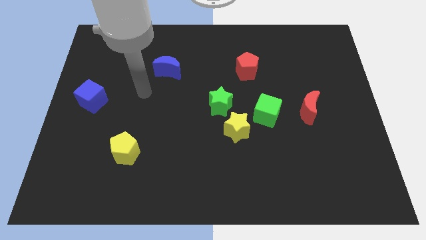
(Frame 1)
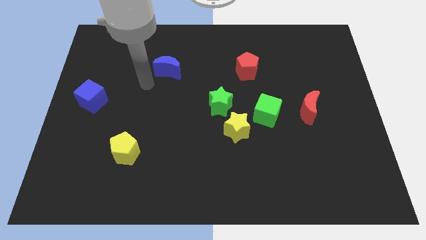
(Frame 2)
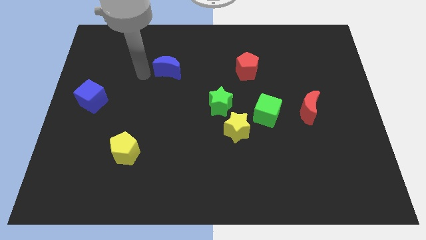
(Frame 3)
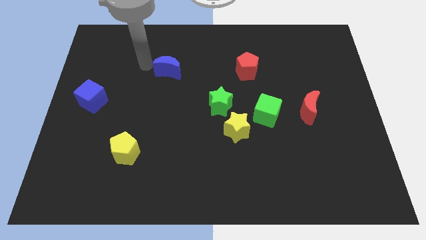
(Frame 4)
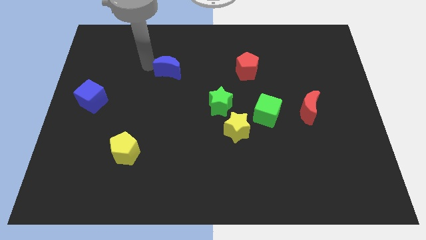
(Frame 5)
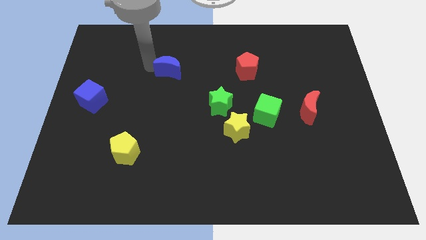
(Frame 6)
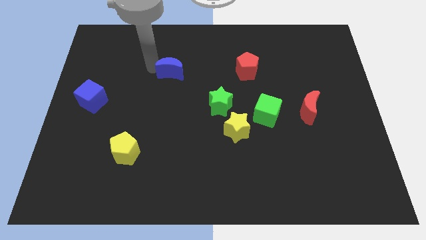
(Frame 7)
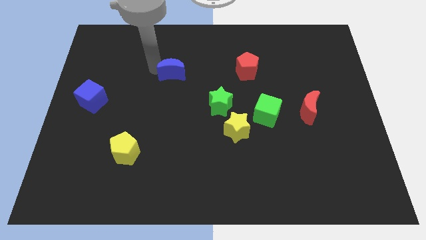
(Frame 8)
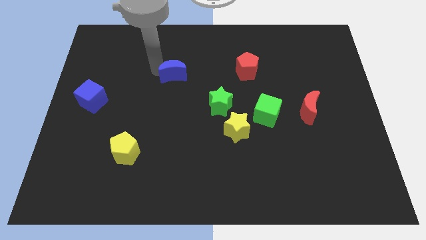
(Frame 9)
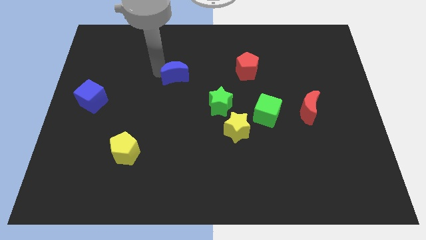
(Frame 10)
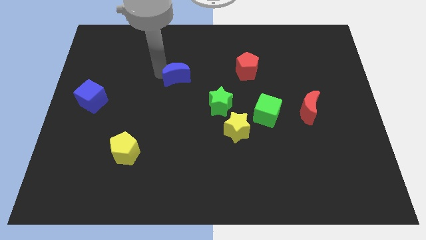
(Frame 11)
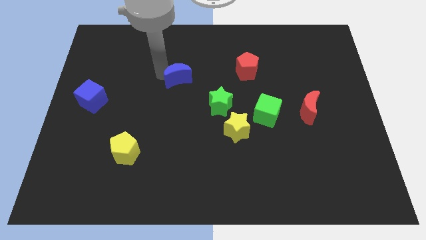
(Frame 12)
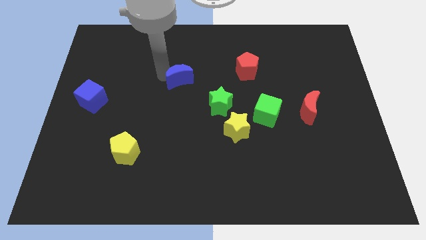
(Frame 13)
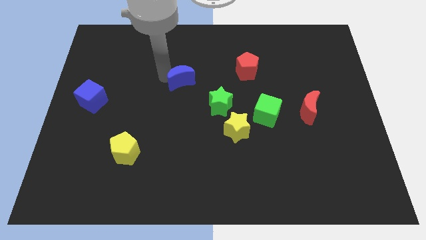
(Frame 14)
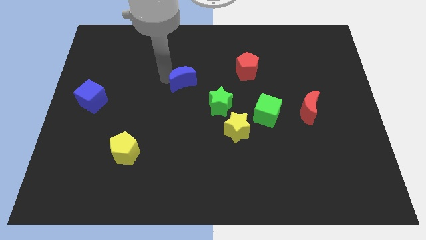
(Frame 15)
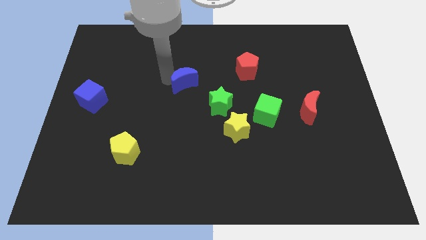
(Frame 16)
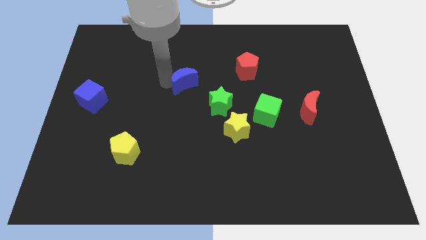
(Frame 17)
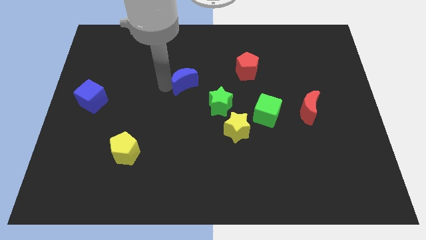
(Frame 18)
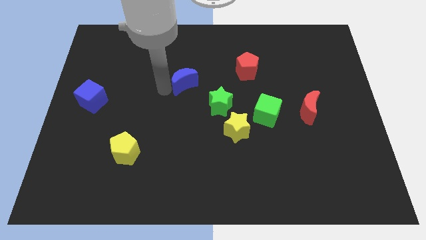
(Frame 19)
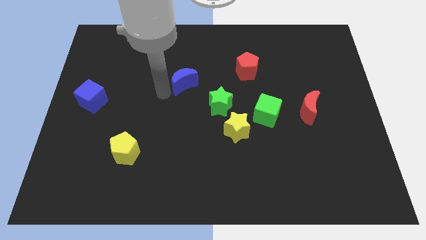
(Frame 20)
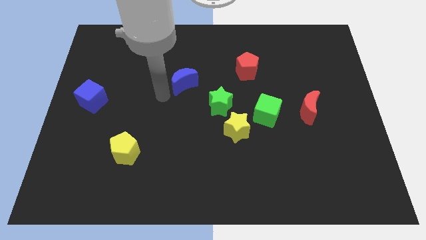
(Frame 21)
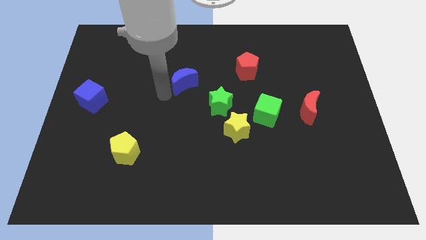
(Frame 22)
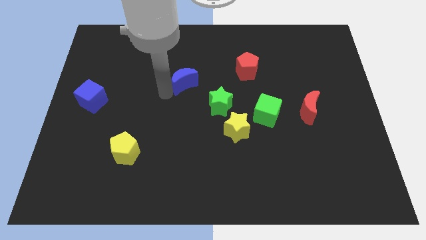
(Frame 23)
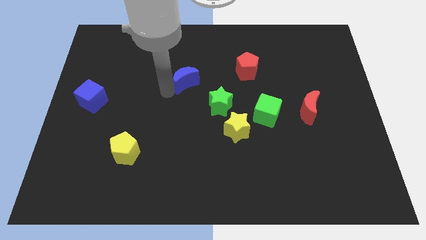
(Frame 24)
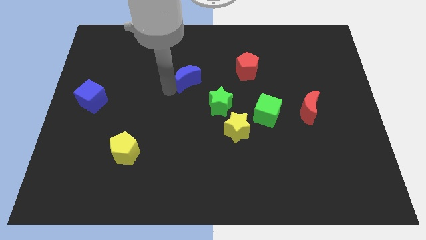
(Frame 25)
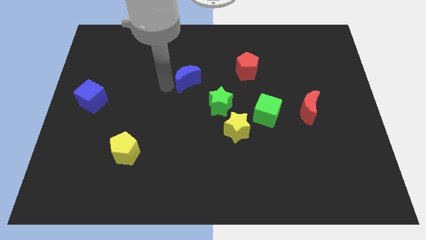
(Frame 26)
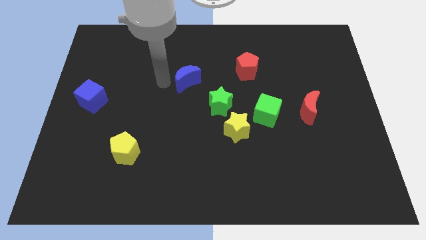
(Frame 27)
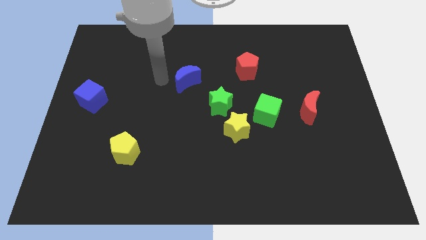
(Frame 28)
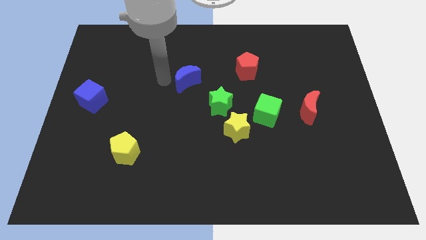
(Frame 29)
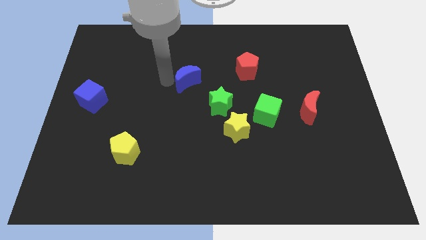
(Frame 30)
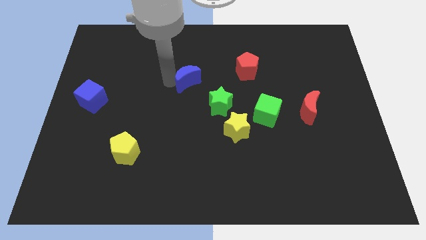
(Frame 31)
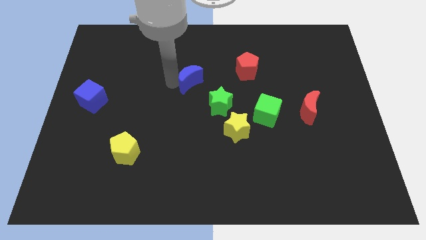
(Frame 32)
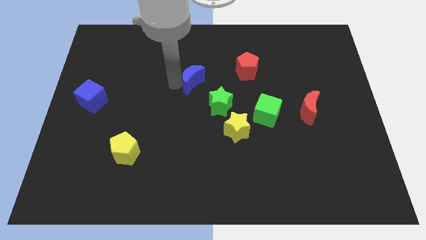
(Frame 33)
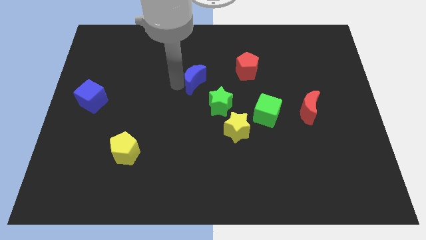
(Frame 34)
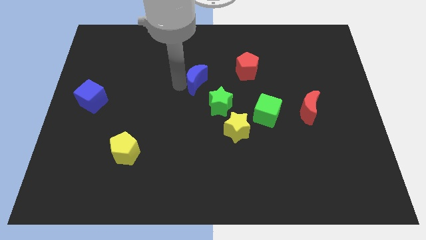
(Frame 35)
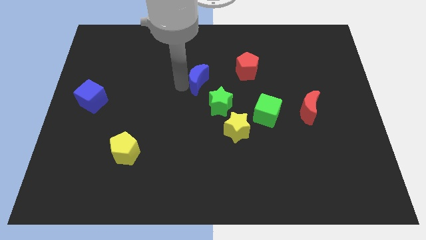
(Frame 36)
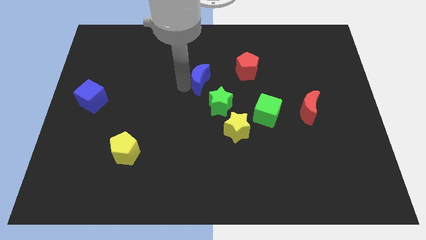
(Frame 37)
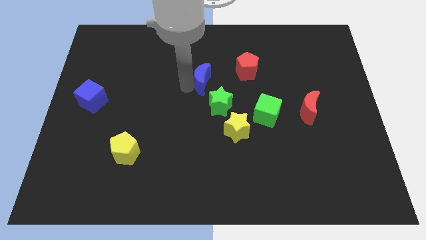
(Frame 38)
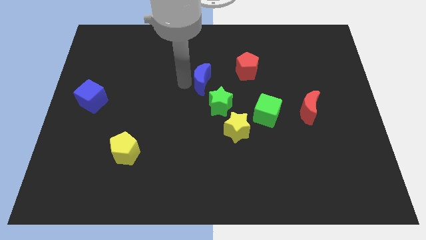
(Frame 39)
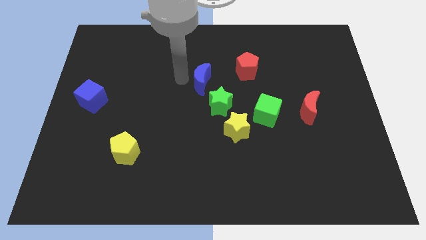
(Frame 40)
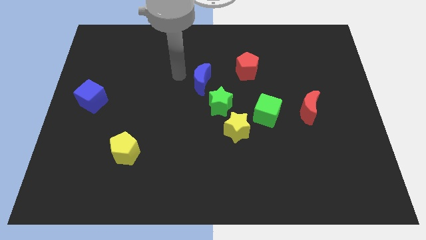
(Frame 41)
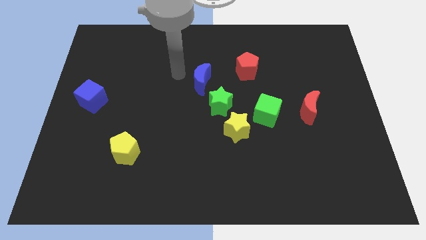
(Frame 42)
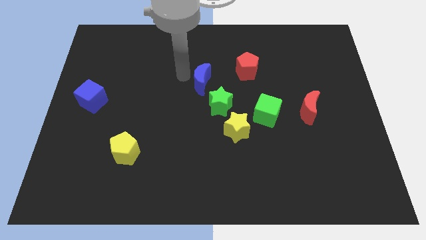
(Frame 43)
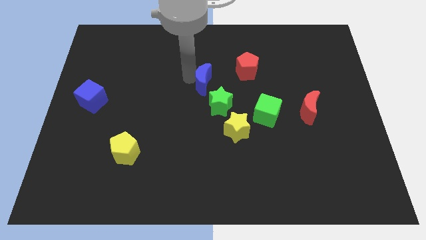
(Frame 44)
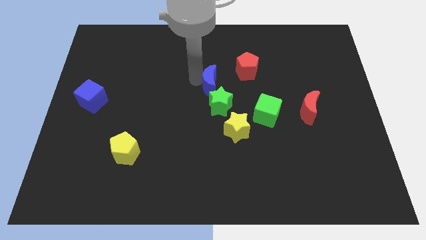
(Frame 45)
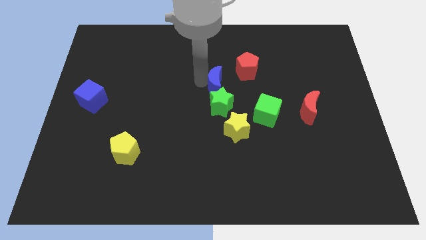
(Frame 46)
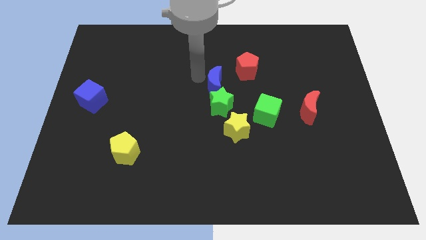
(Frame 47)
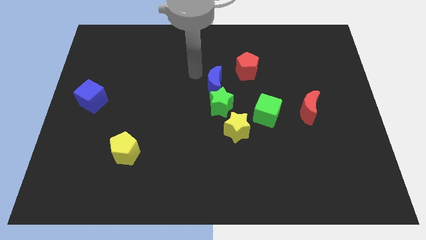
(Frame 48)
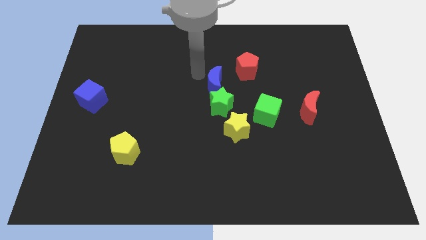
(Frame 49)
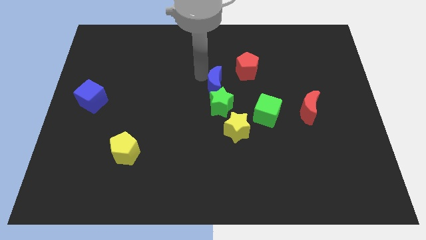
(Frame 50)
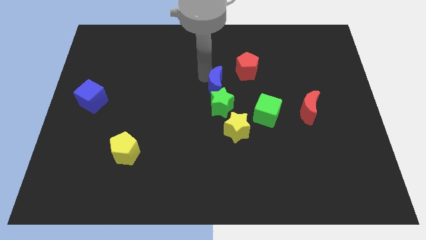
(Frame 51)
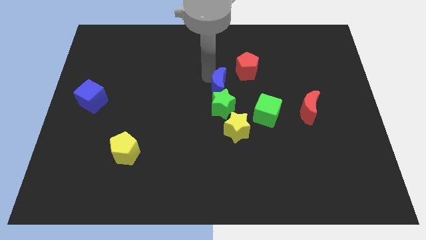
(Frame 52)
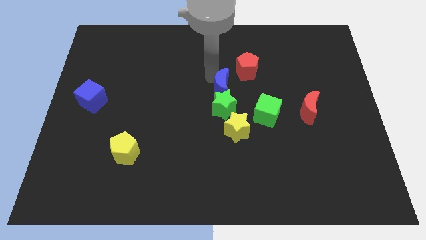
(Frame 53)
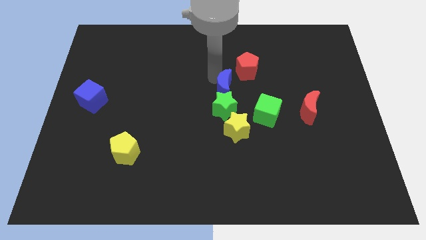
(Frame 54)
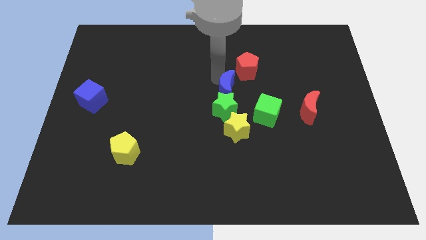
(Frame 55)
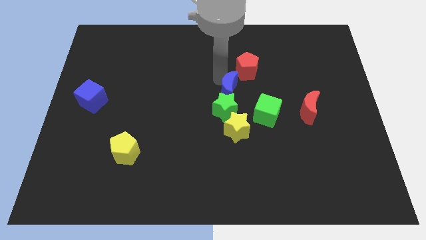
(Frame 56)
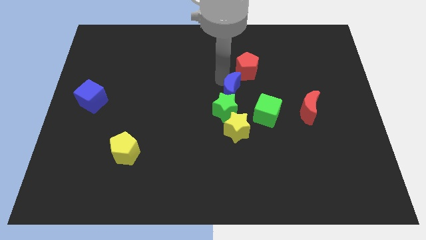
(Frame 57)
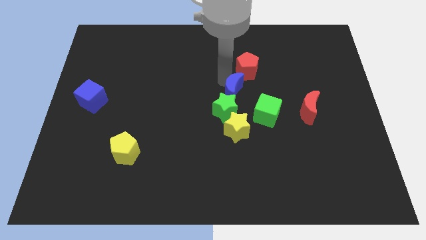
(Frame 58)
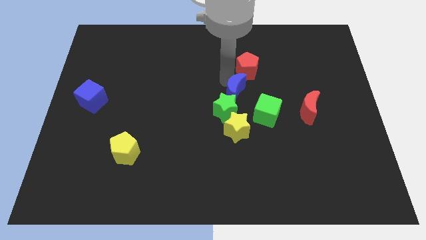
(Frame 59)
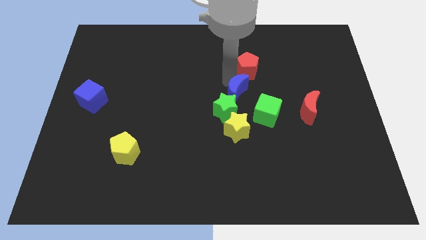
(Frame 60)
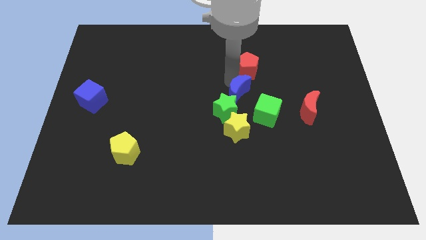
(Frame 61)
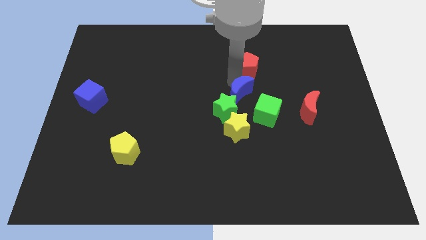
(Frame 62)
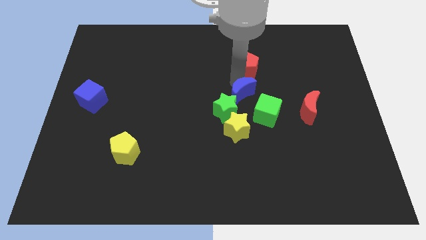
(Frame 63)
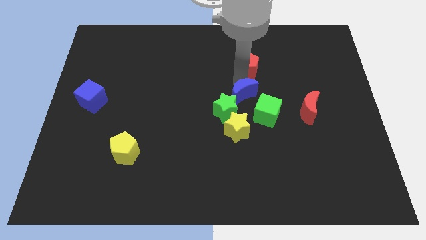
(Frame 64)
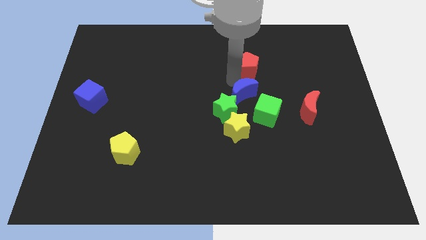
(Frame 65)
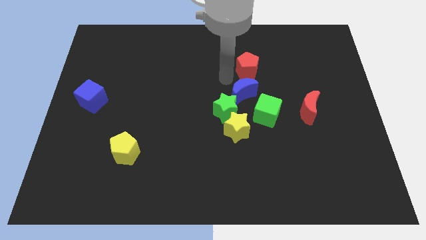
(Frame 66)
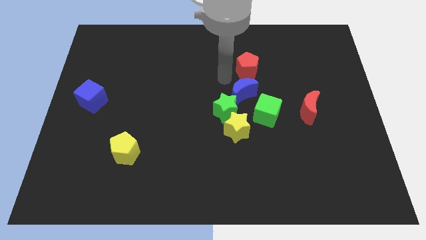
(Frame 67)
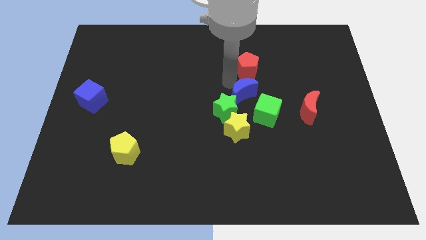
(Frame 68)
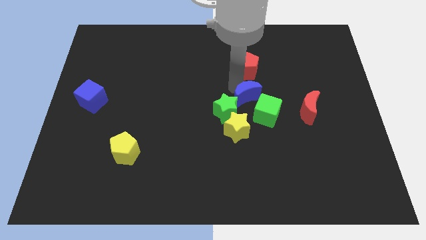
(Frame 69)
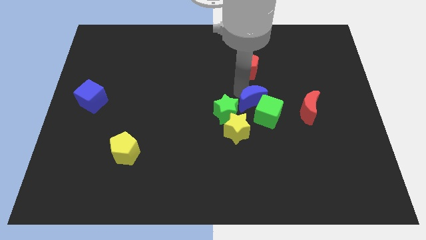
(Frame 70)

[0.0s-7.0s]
move the blue moon to the green cube

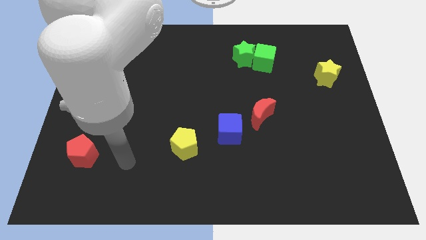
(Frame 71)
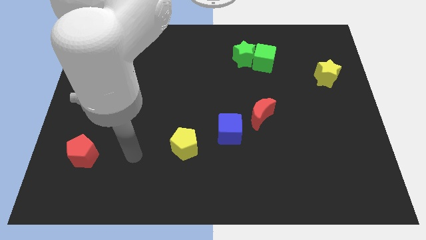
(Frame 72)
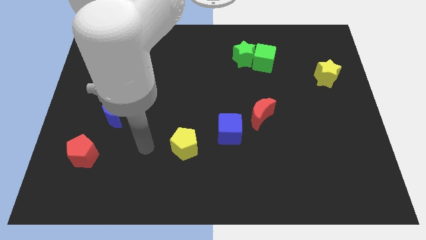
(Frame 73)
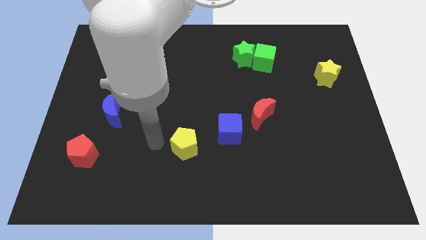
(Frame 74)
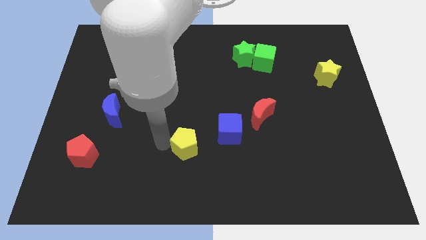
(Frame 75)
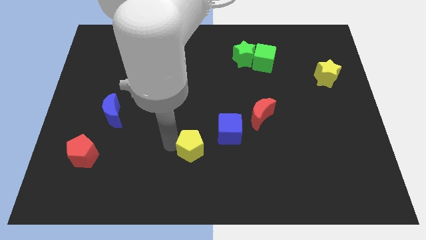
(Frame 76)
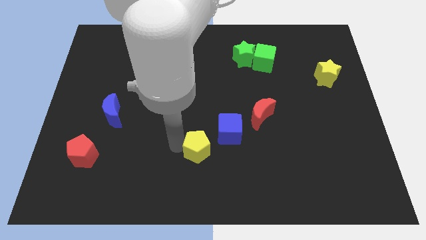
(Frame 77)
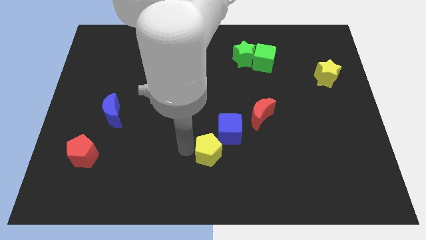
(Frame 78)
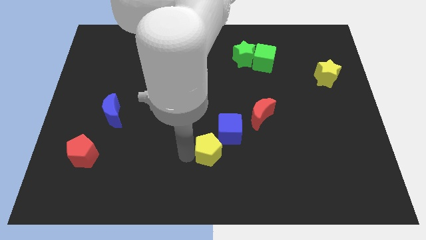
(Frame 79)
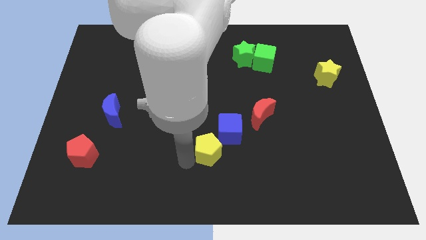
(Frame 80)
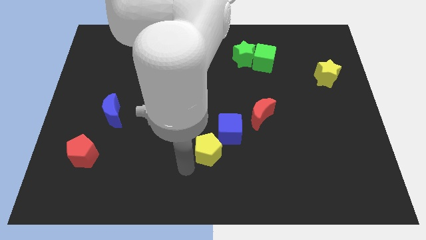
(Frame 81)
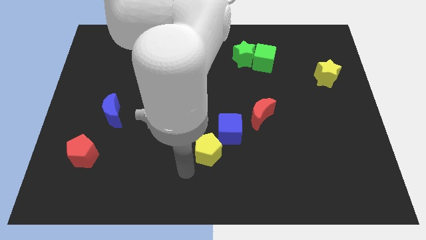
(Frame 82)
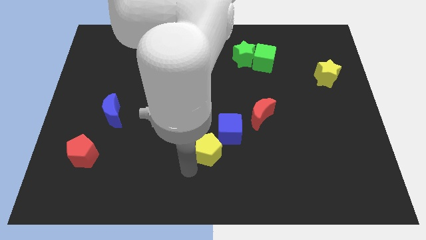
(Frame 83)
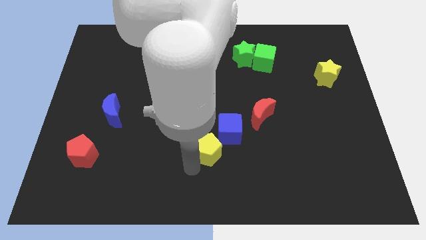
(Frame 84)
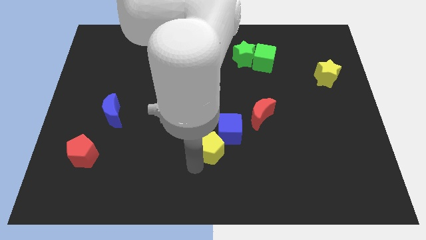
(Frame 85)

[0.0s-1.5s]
move the yellow pentagon to the blue cube
